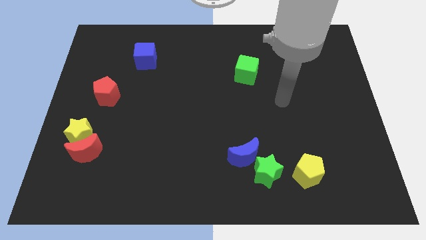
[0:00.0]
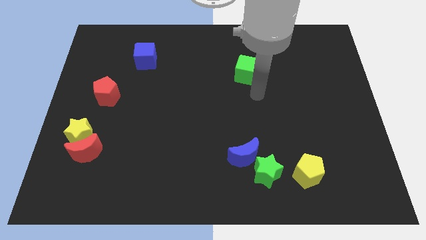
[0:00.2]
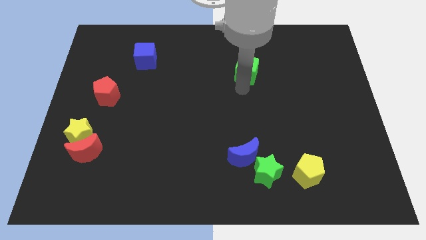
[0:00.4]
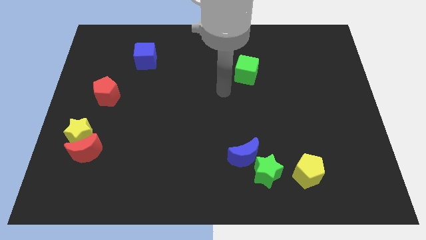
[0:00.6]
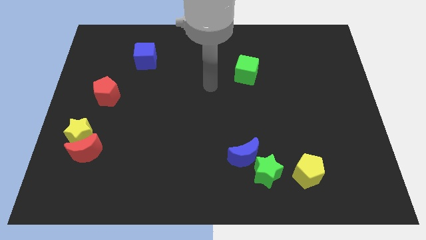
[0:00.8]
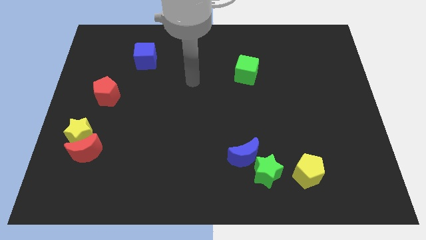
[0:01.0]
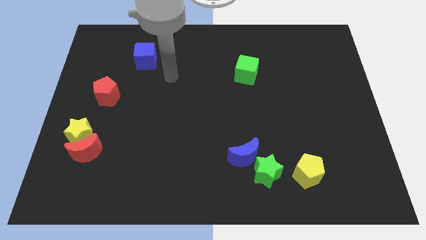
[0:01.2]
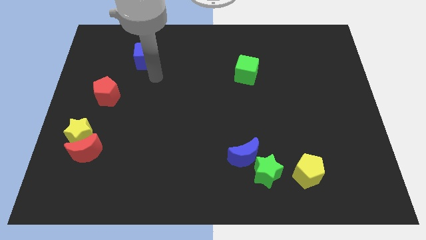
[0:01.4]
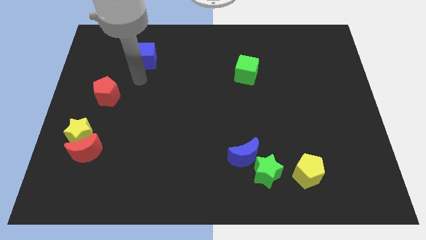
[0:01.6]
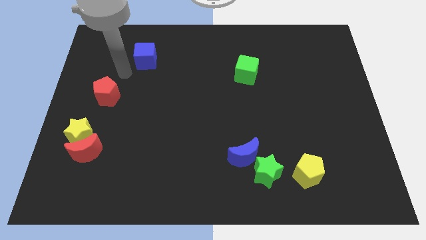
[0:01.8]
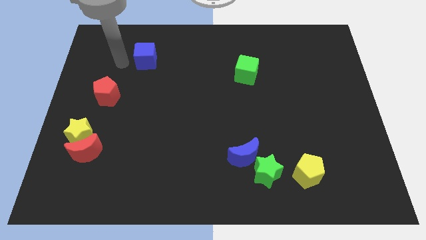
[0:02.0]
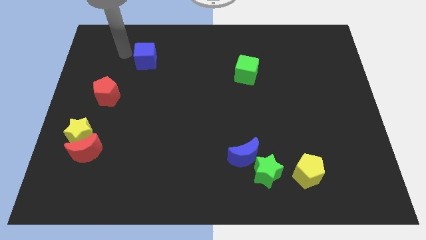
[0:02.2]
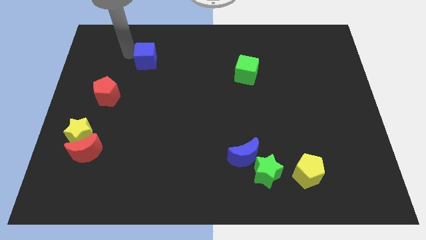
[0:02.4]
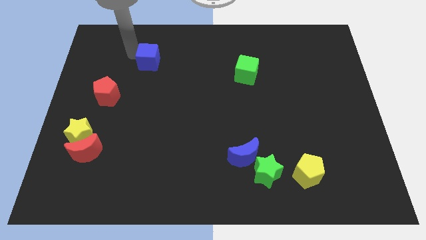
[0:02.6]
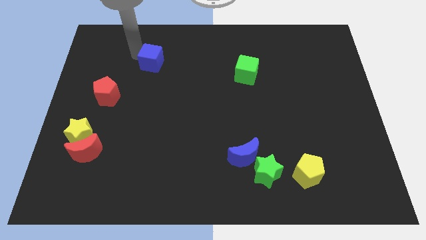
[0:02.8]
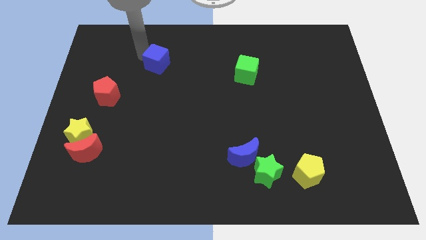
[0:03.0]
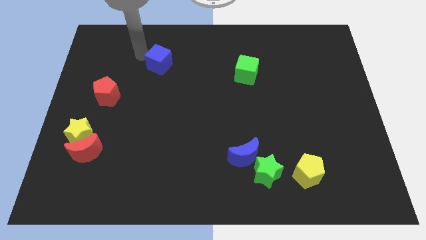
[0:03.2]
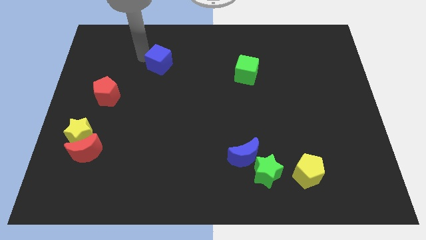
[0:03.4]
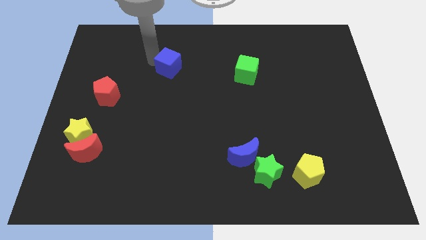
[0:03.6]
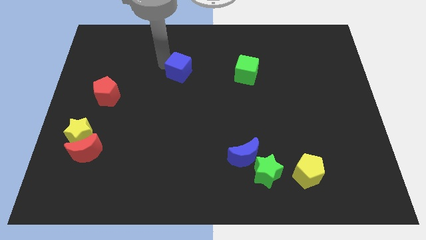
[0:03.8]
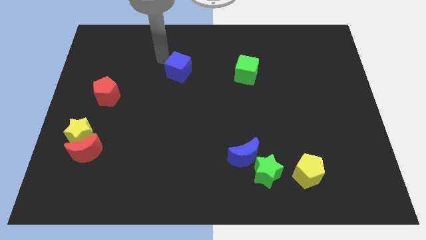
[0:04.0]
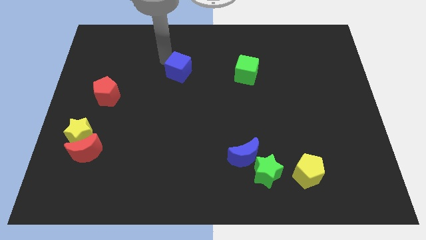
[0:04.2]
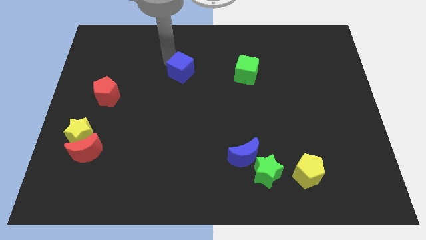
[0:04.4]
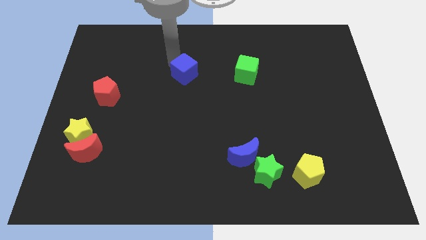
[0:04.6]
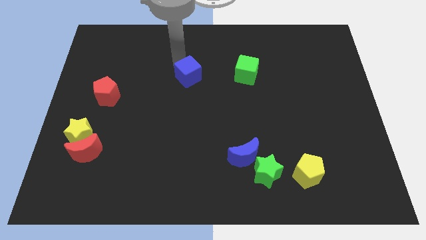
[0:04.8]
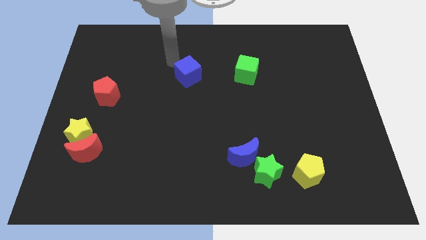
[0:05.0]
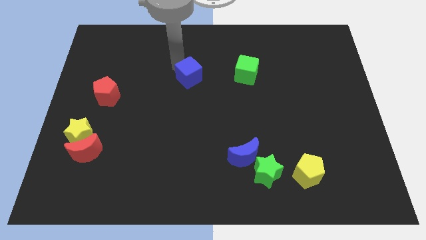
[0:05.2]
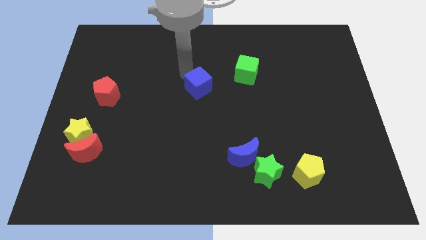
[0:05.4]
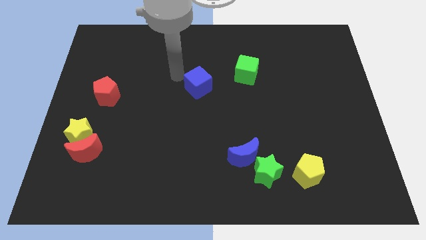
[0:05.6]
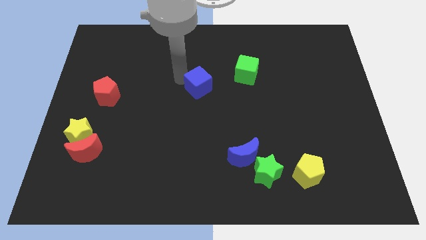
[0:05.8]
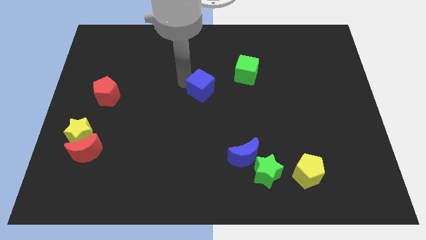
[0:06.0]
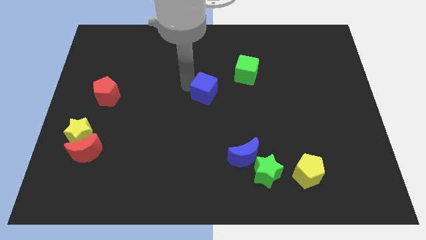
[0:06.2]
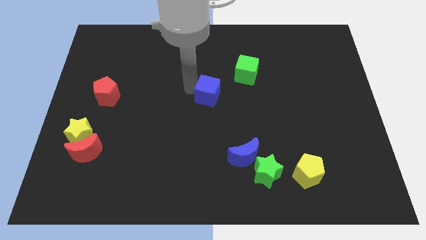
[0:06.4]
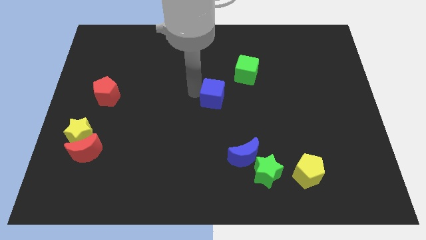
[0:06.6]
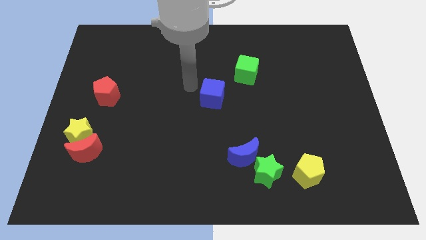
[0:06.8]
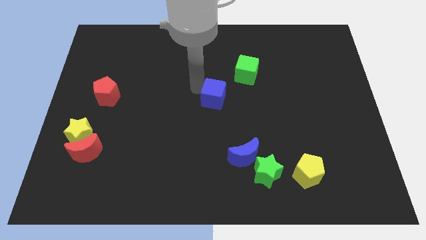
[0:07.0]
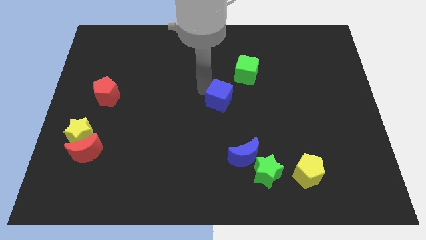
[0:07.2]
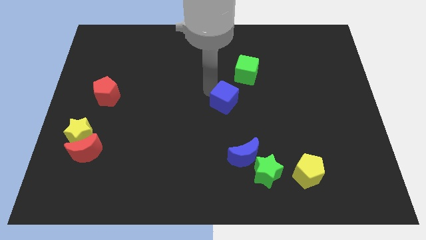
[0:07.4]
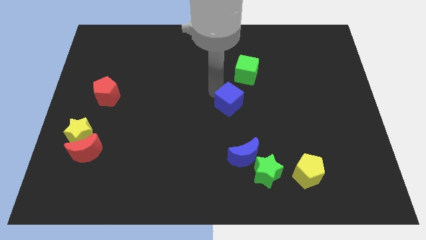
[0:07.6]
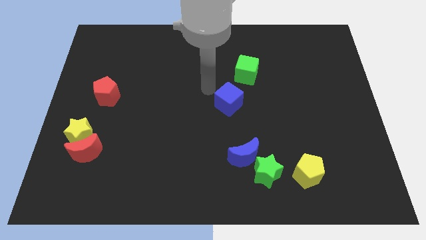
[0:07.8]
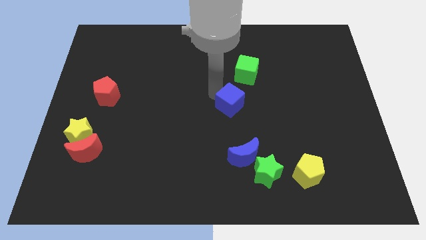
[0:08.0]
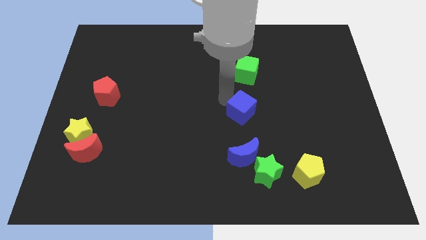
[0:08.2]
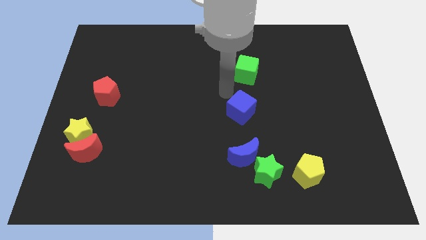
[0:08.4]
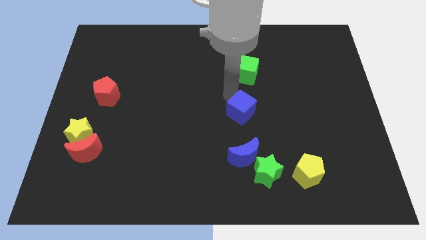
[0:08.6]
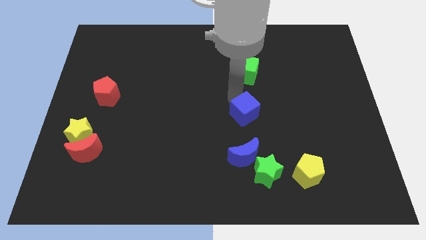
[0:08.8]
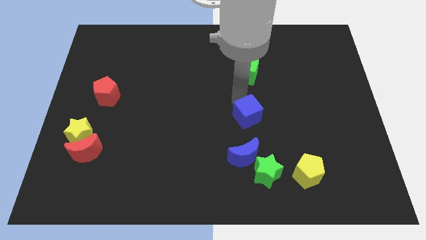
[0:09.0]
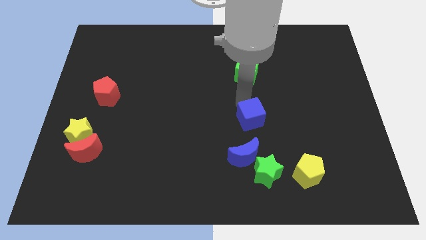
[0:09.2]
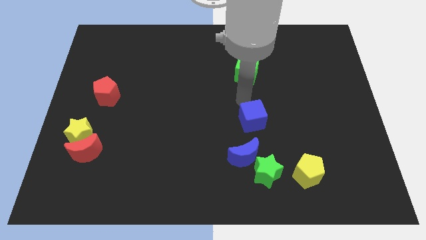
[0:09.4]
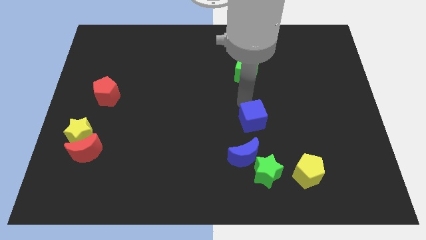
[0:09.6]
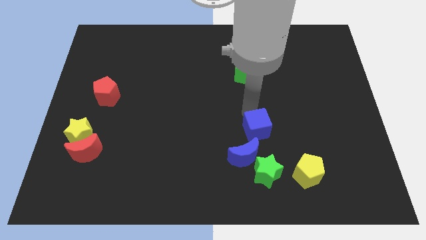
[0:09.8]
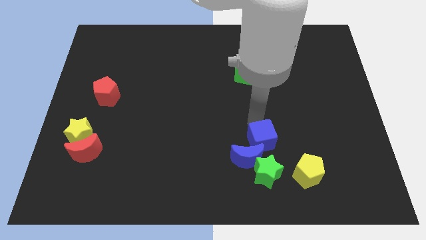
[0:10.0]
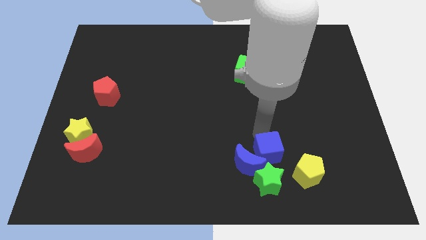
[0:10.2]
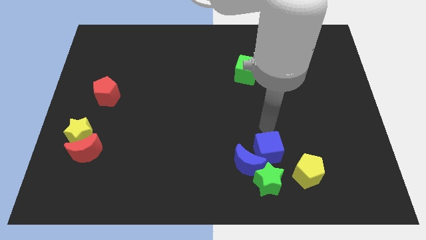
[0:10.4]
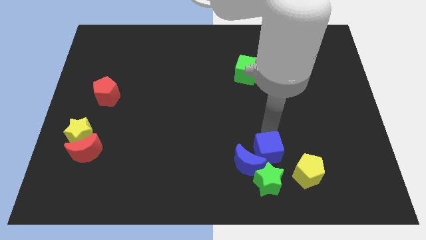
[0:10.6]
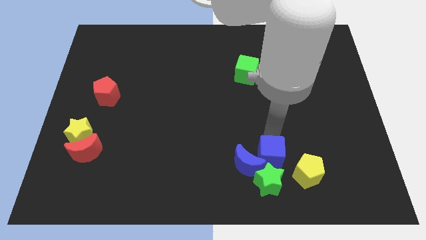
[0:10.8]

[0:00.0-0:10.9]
move the blue cube close to the green star
